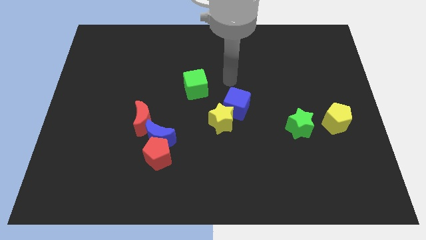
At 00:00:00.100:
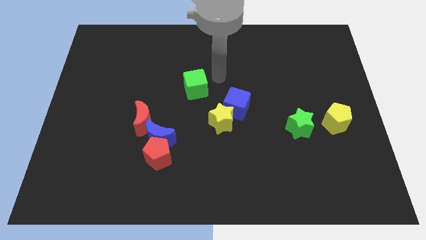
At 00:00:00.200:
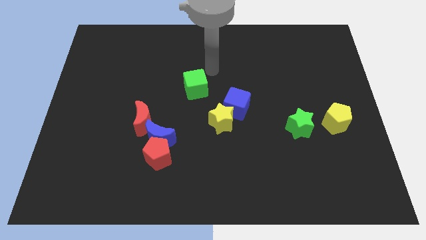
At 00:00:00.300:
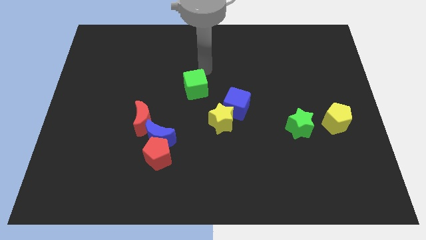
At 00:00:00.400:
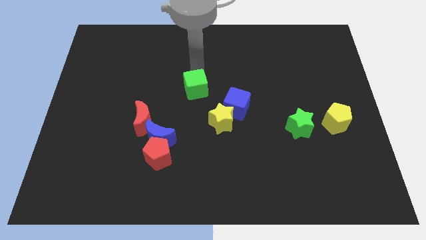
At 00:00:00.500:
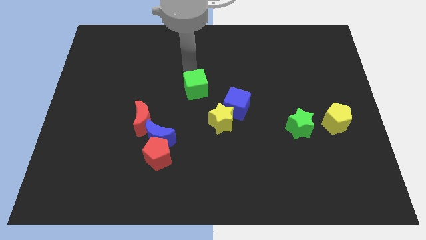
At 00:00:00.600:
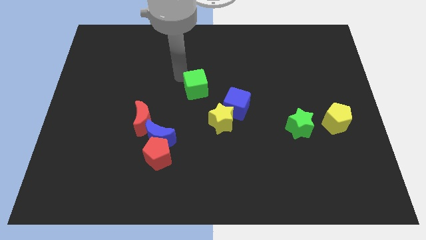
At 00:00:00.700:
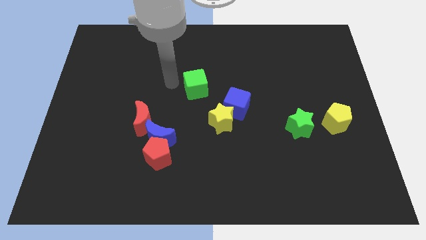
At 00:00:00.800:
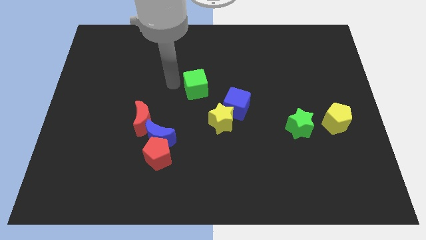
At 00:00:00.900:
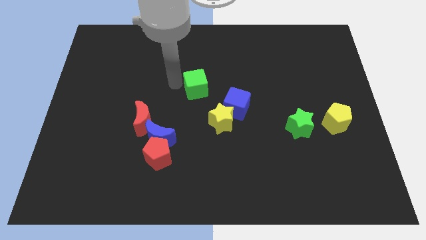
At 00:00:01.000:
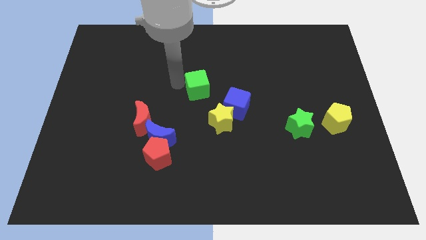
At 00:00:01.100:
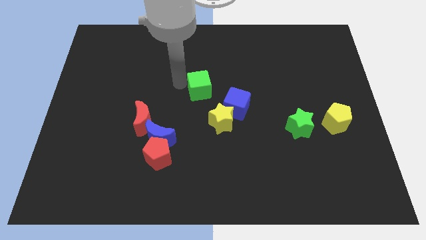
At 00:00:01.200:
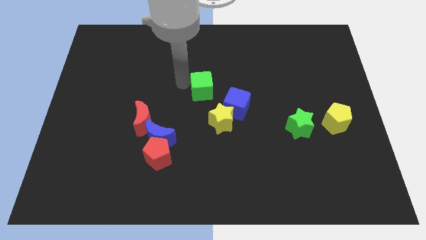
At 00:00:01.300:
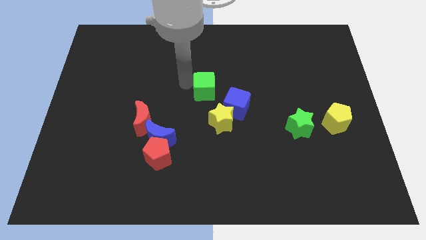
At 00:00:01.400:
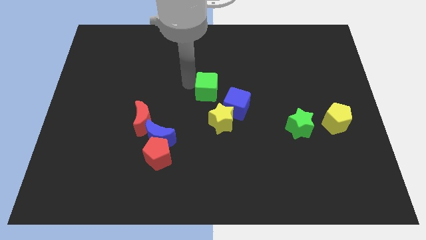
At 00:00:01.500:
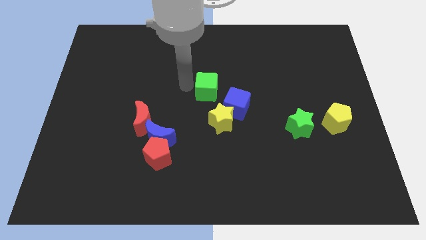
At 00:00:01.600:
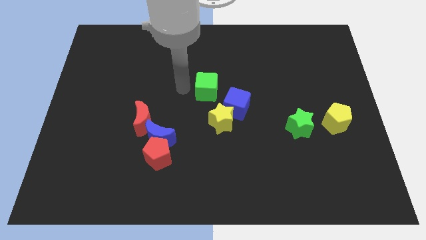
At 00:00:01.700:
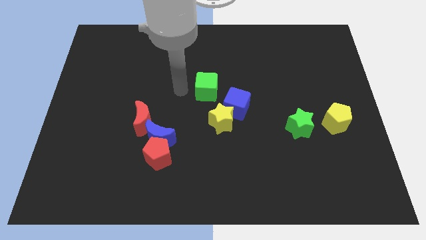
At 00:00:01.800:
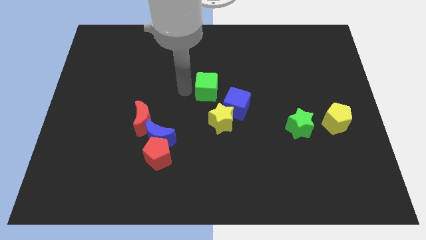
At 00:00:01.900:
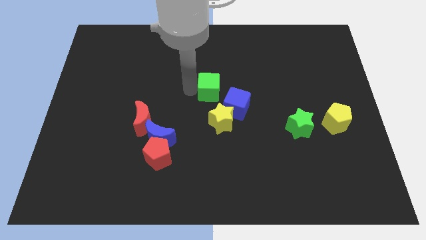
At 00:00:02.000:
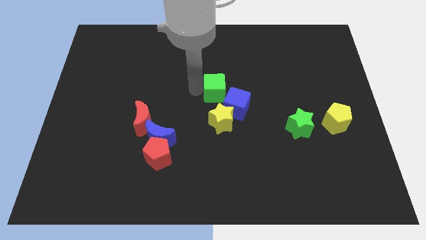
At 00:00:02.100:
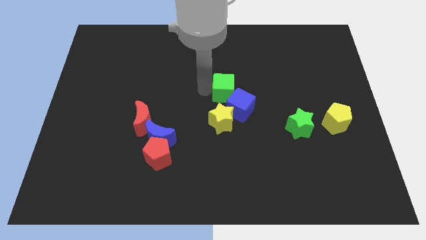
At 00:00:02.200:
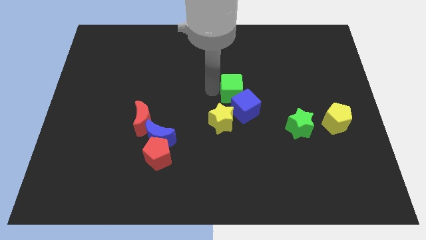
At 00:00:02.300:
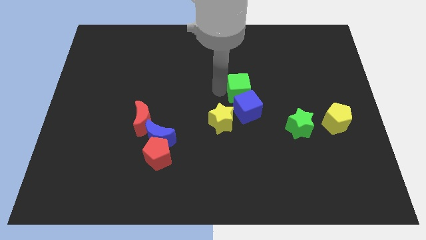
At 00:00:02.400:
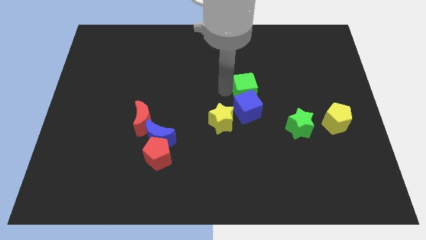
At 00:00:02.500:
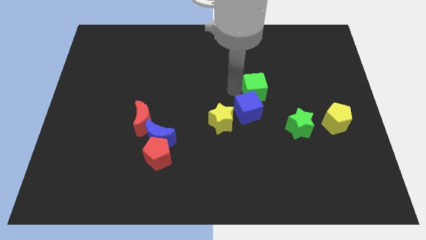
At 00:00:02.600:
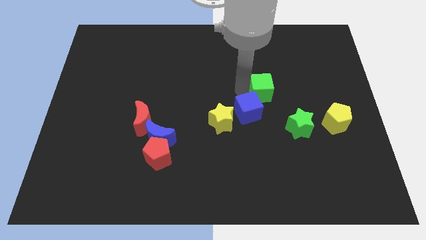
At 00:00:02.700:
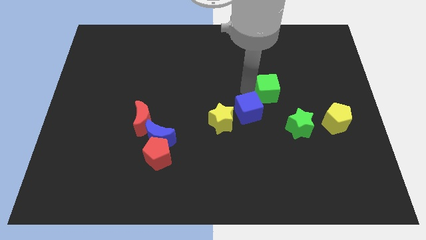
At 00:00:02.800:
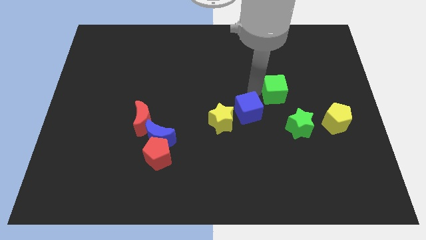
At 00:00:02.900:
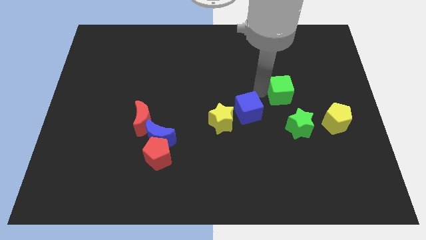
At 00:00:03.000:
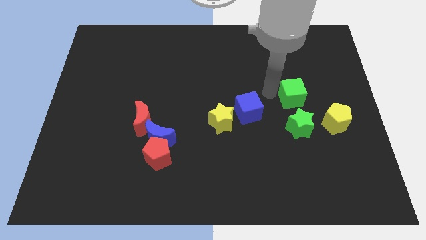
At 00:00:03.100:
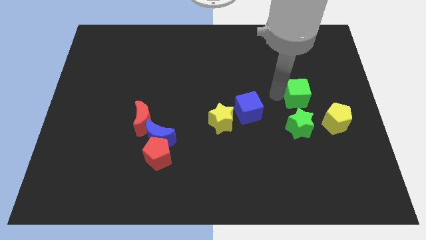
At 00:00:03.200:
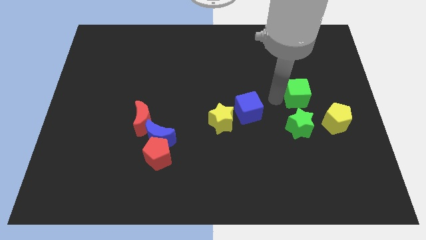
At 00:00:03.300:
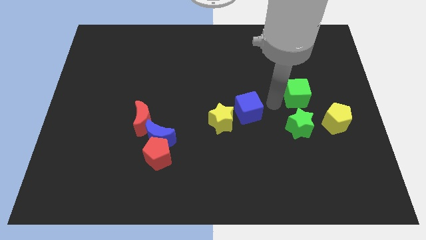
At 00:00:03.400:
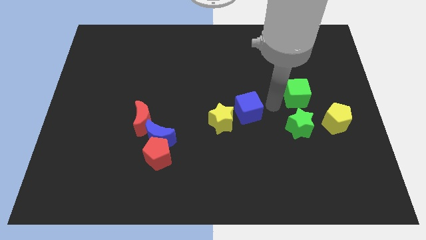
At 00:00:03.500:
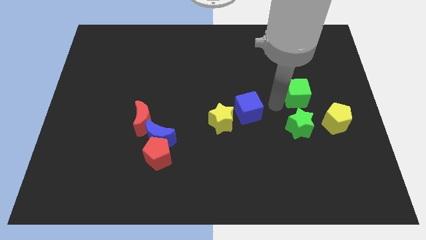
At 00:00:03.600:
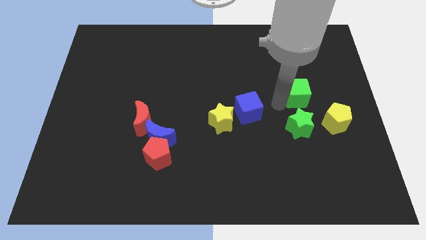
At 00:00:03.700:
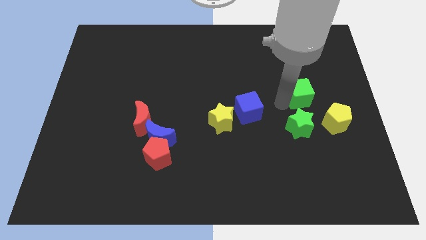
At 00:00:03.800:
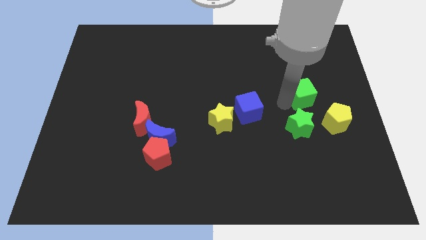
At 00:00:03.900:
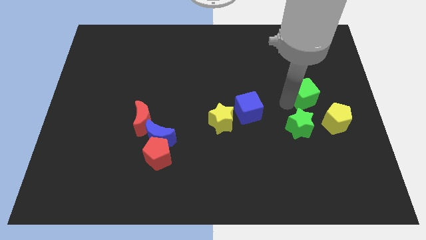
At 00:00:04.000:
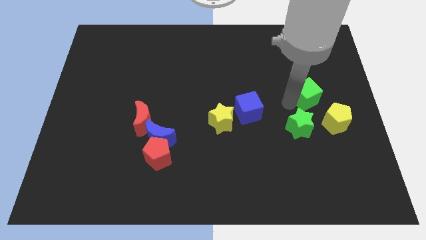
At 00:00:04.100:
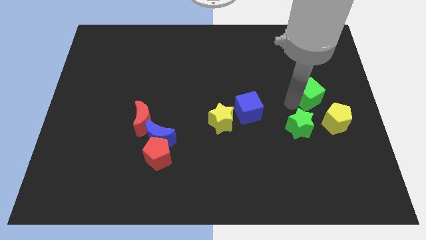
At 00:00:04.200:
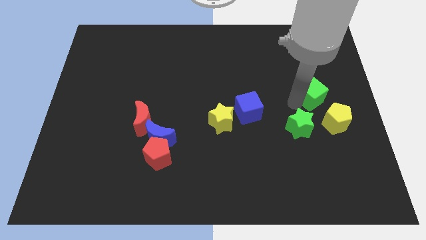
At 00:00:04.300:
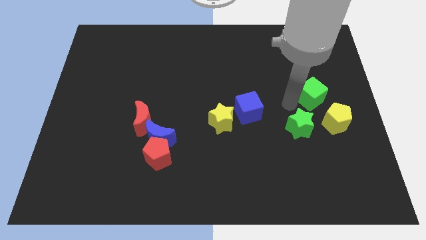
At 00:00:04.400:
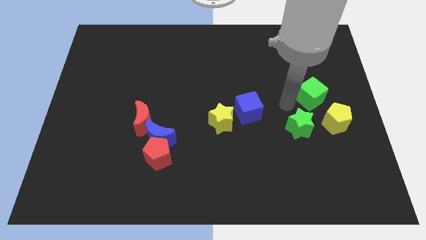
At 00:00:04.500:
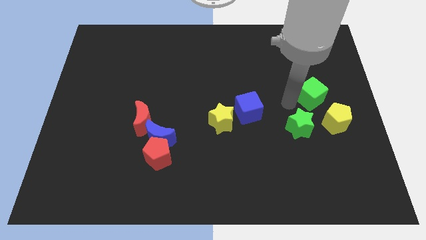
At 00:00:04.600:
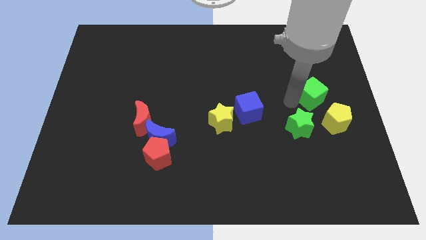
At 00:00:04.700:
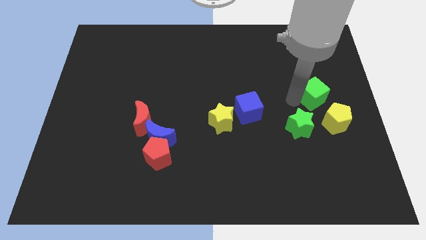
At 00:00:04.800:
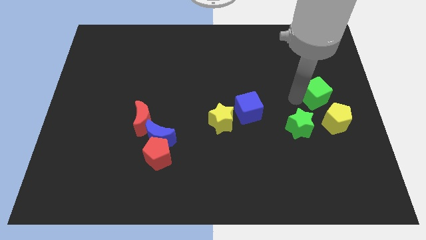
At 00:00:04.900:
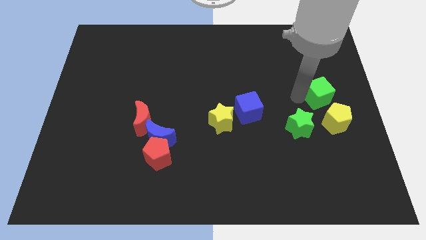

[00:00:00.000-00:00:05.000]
move the green cube to the center right

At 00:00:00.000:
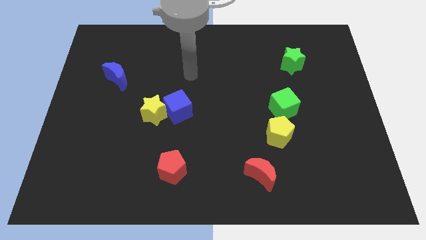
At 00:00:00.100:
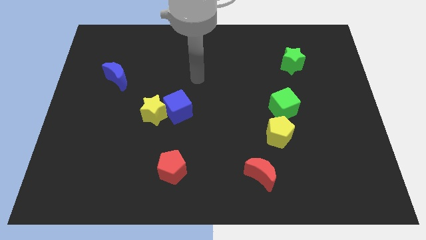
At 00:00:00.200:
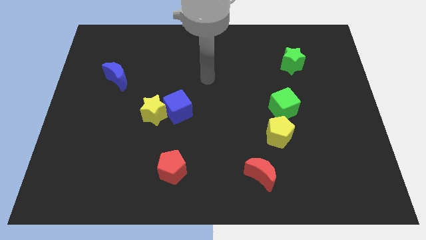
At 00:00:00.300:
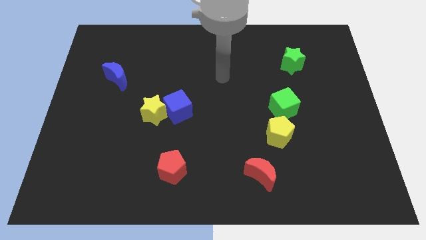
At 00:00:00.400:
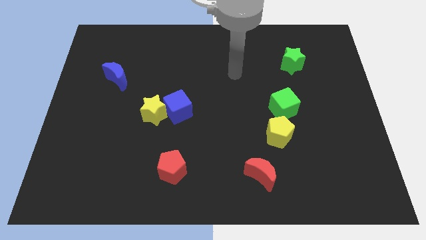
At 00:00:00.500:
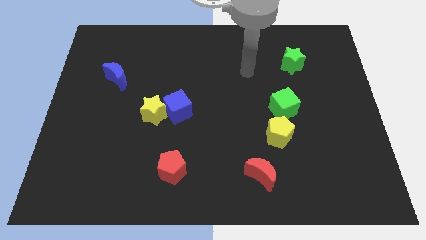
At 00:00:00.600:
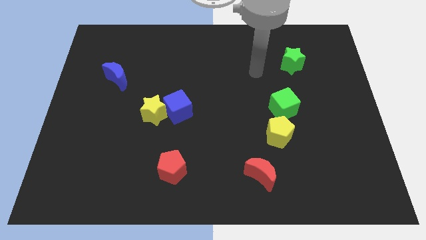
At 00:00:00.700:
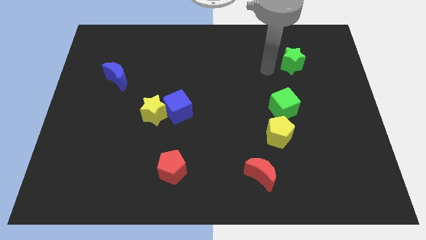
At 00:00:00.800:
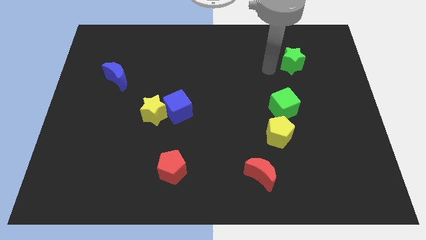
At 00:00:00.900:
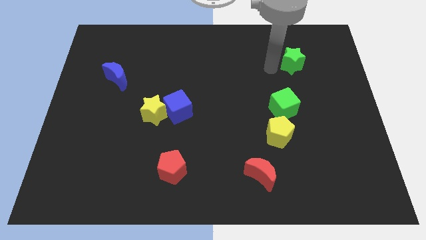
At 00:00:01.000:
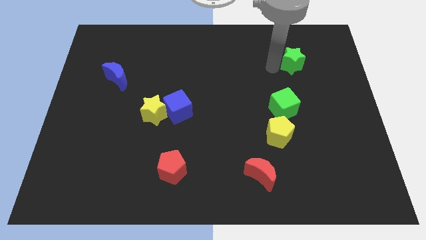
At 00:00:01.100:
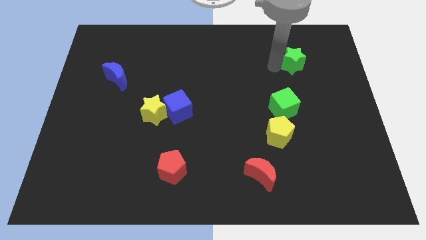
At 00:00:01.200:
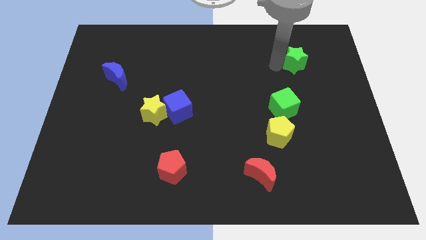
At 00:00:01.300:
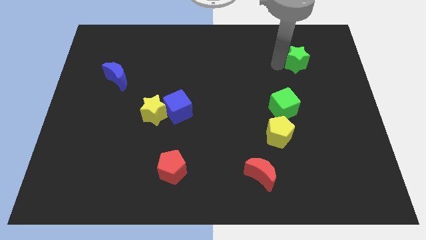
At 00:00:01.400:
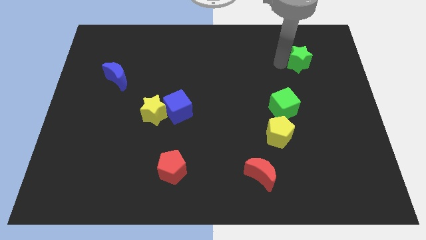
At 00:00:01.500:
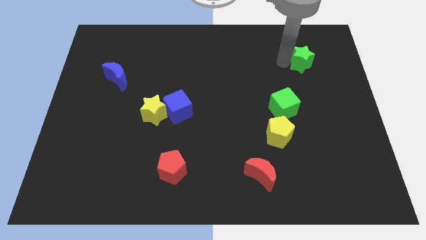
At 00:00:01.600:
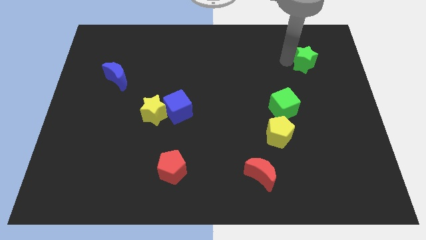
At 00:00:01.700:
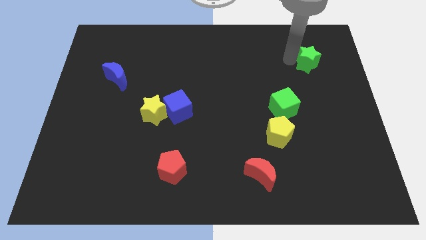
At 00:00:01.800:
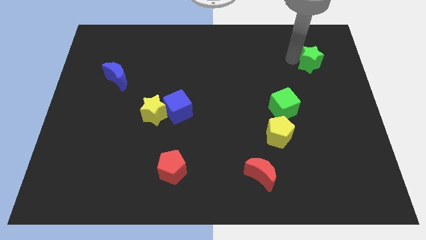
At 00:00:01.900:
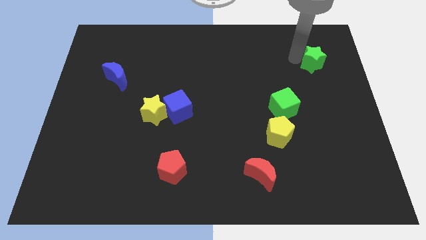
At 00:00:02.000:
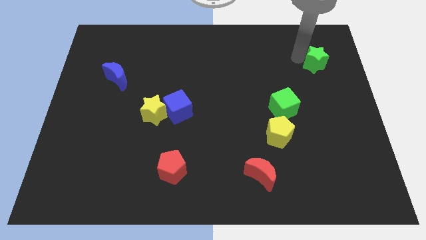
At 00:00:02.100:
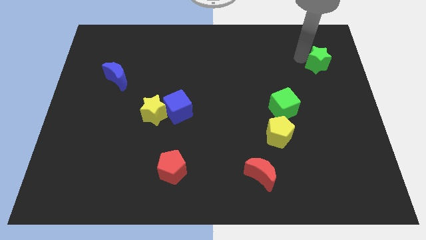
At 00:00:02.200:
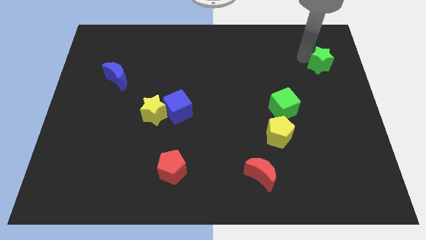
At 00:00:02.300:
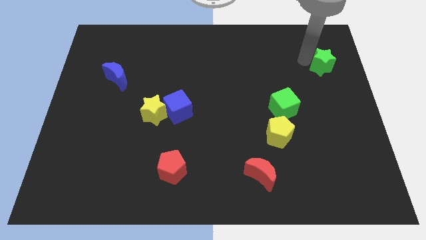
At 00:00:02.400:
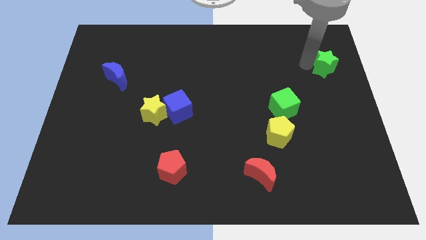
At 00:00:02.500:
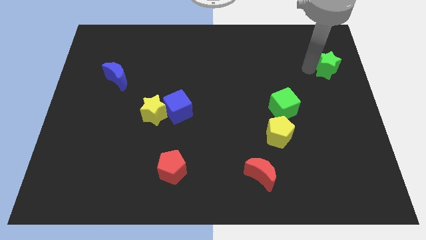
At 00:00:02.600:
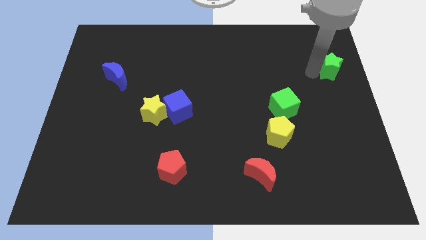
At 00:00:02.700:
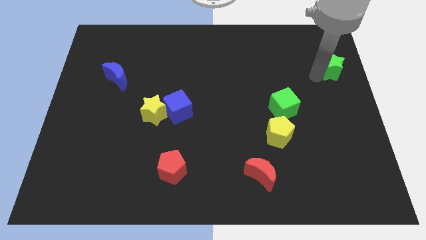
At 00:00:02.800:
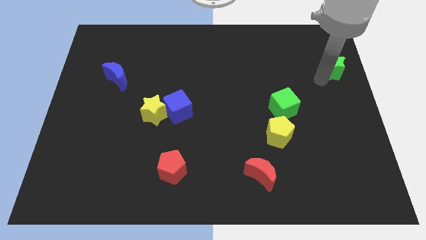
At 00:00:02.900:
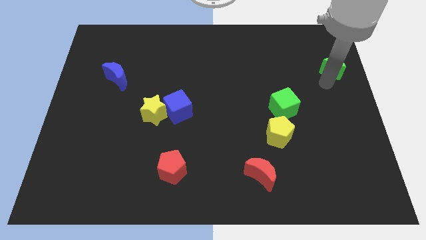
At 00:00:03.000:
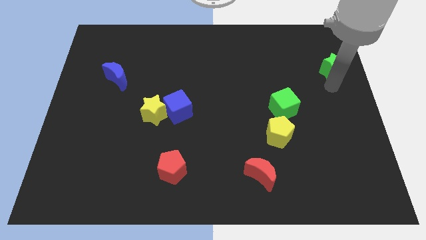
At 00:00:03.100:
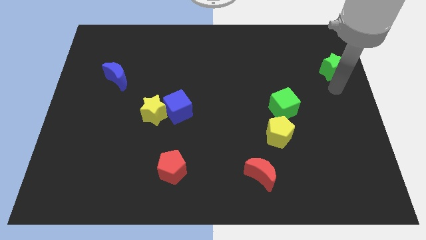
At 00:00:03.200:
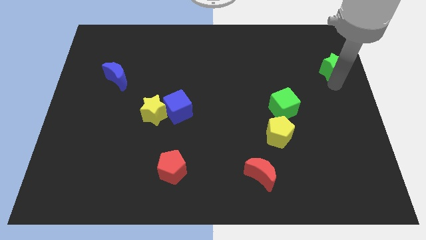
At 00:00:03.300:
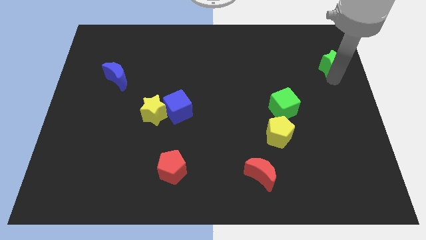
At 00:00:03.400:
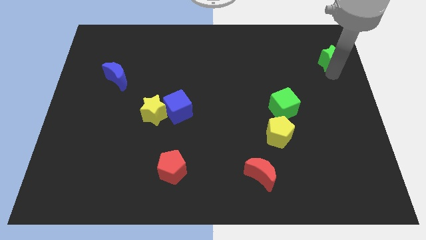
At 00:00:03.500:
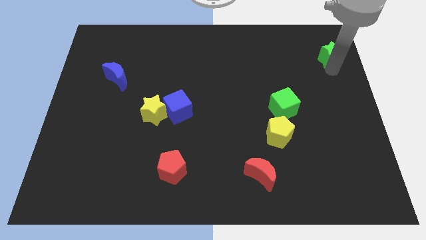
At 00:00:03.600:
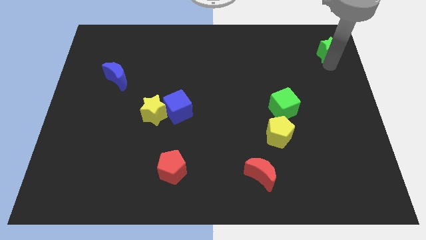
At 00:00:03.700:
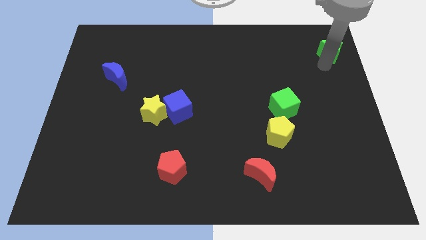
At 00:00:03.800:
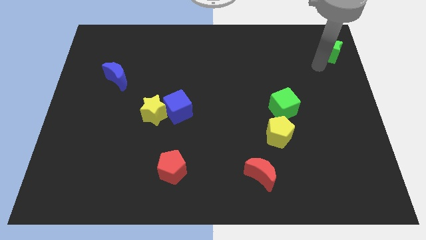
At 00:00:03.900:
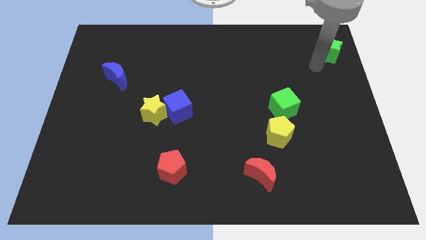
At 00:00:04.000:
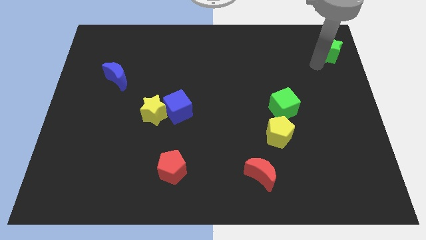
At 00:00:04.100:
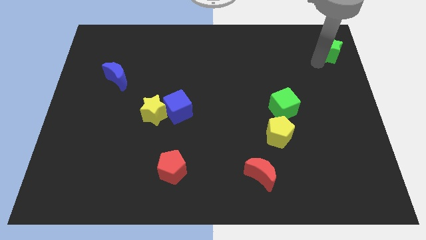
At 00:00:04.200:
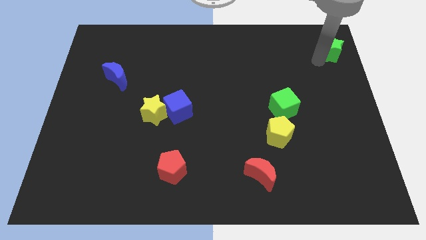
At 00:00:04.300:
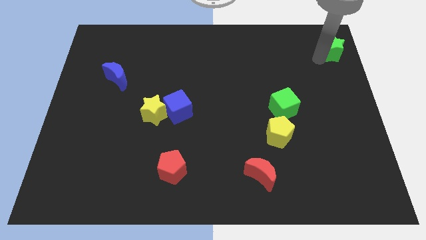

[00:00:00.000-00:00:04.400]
move the green star to the top right of the board
